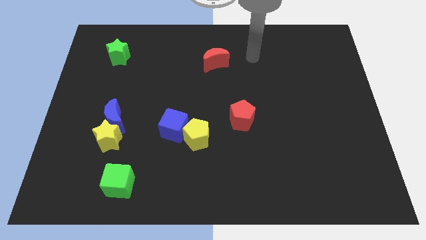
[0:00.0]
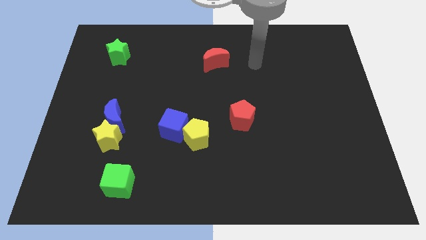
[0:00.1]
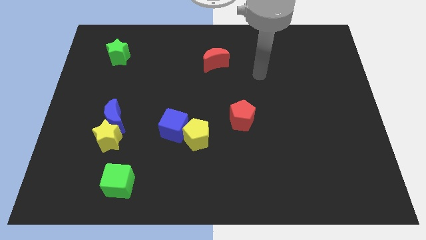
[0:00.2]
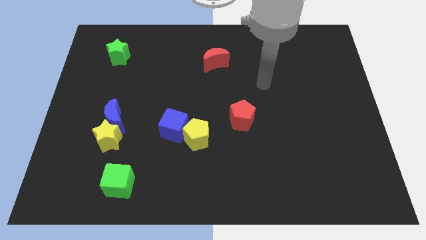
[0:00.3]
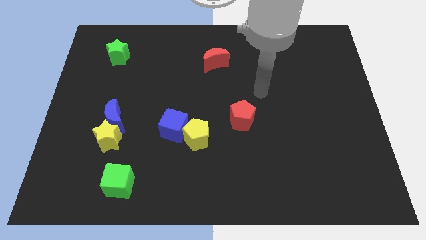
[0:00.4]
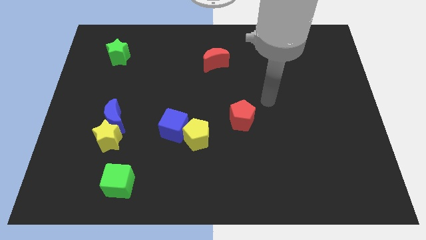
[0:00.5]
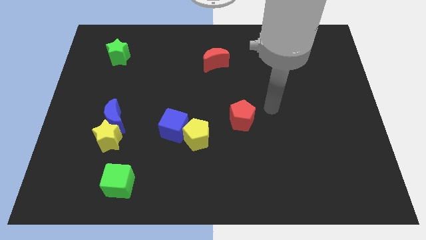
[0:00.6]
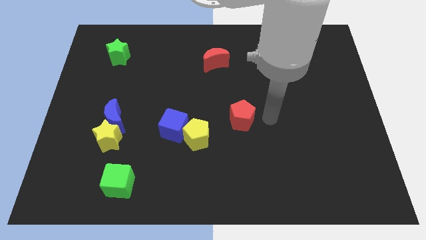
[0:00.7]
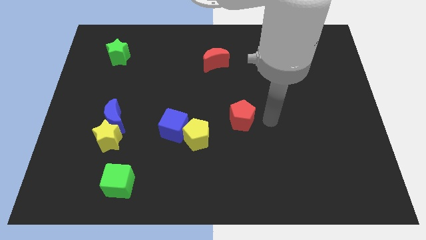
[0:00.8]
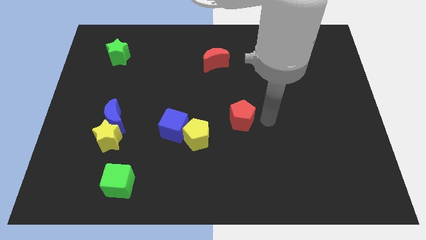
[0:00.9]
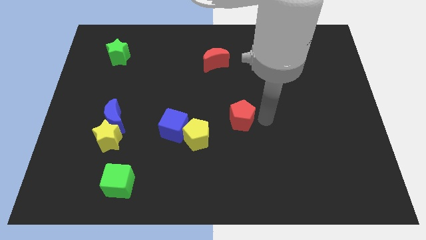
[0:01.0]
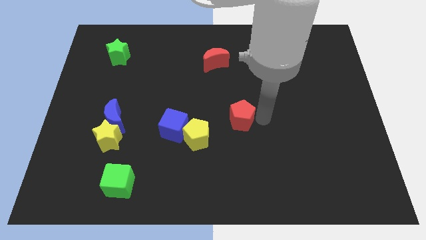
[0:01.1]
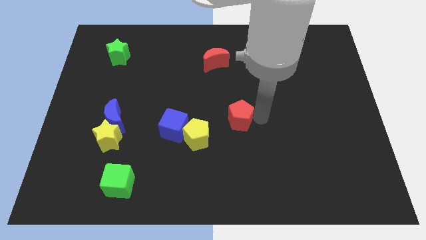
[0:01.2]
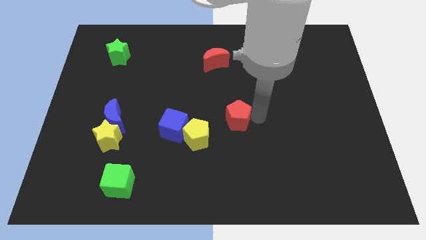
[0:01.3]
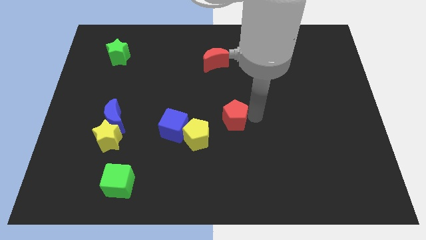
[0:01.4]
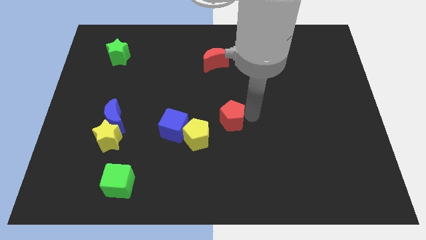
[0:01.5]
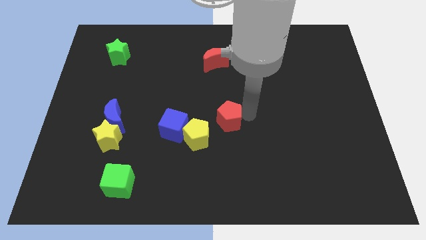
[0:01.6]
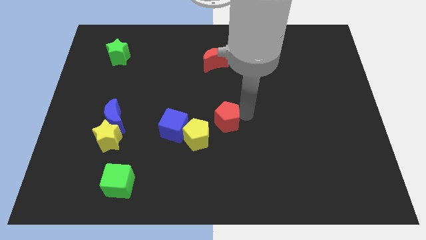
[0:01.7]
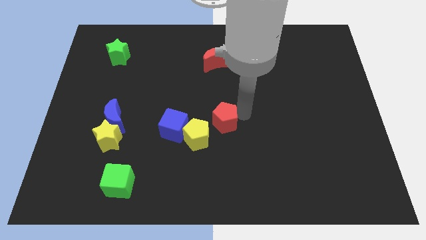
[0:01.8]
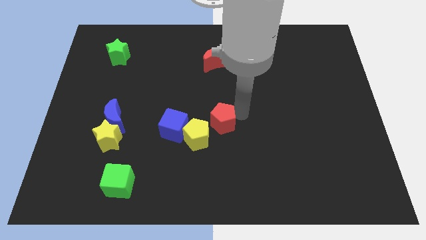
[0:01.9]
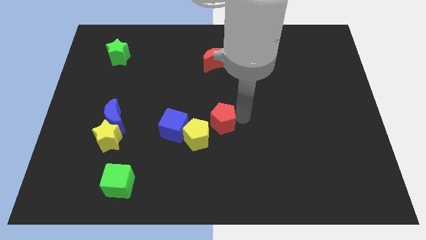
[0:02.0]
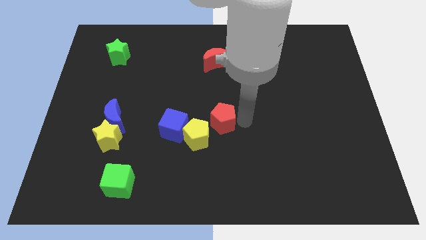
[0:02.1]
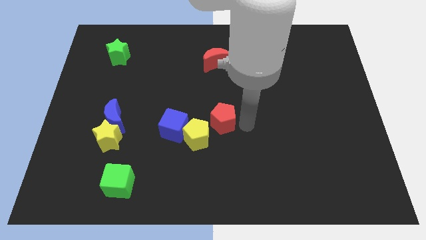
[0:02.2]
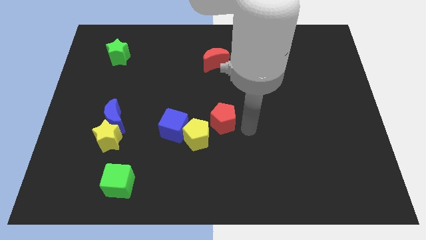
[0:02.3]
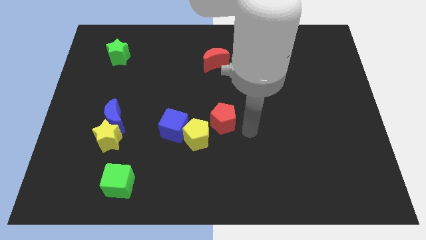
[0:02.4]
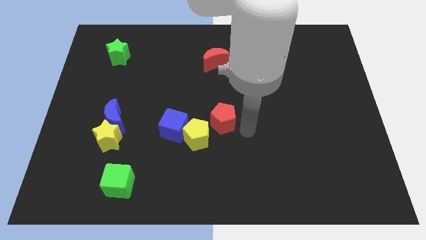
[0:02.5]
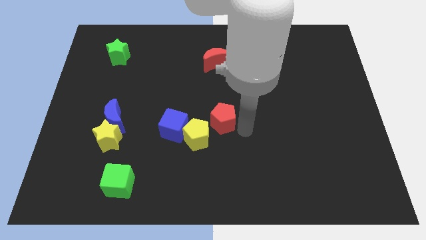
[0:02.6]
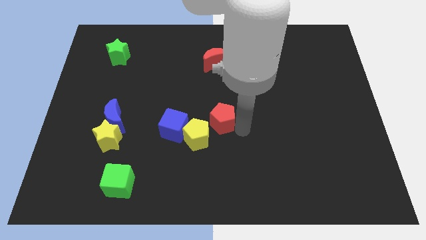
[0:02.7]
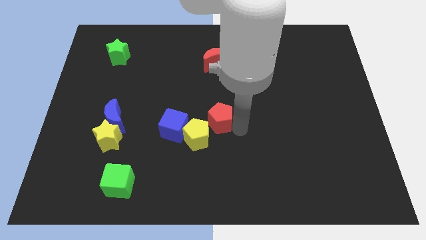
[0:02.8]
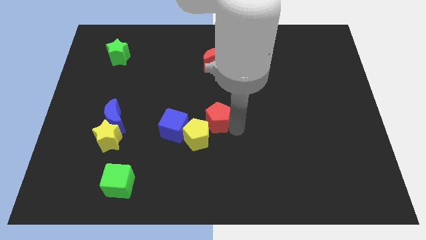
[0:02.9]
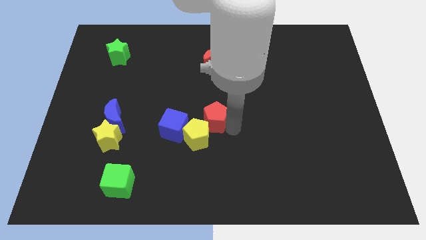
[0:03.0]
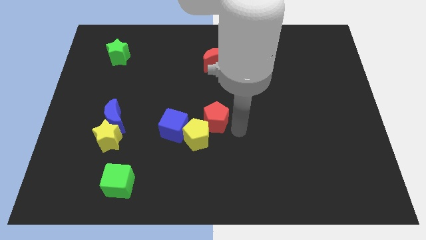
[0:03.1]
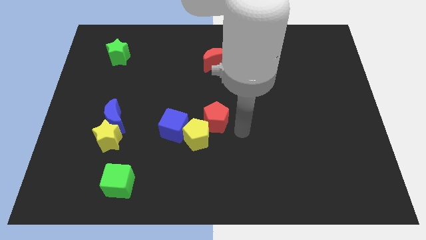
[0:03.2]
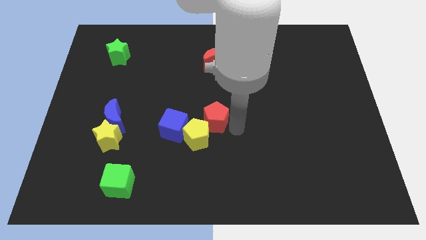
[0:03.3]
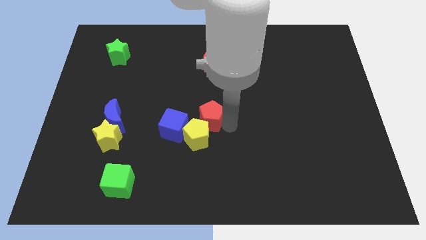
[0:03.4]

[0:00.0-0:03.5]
move the red pentagon a little bit left

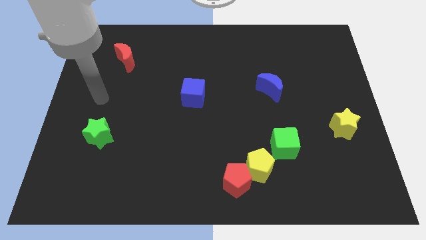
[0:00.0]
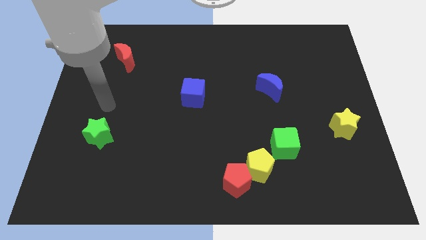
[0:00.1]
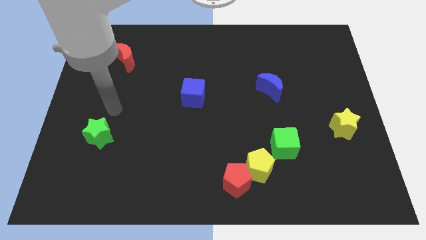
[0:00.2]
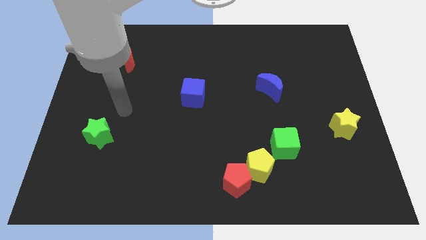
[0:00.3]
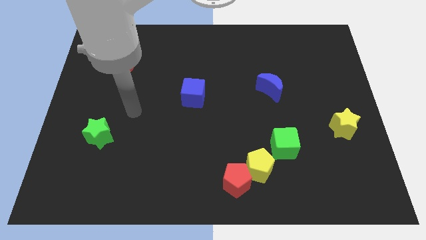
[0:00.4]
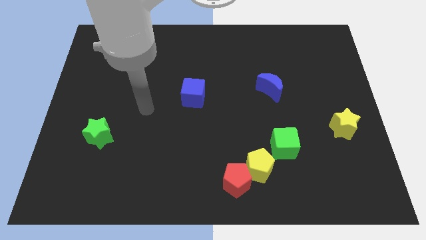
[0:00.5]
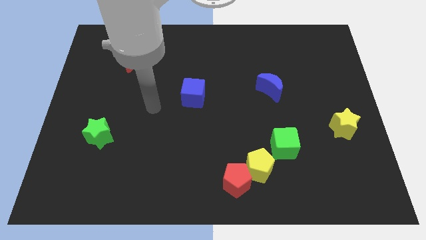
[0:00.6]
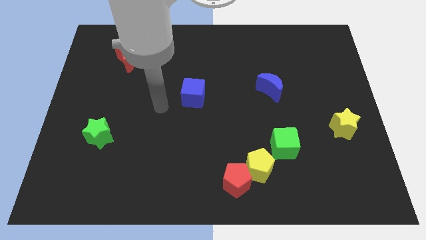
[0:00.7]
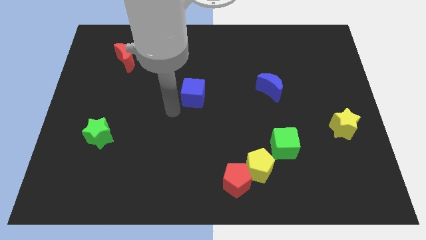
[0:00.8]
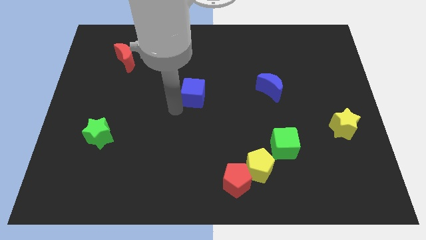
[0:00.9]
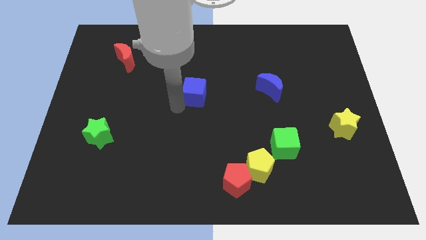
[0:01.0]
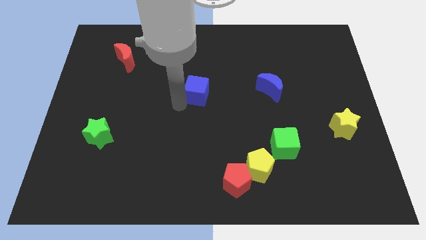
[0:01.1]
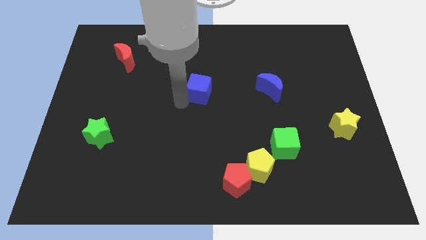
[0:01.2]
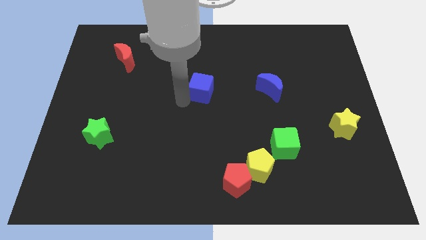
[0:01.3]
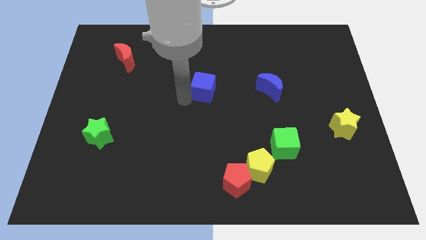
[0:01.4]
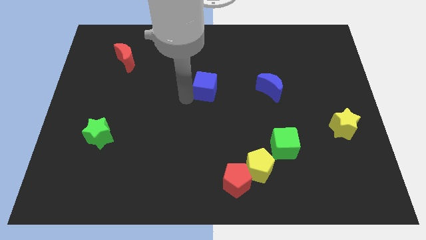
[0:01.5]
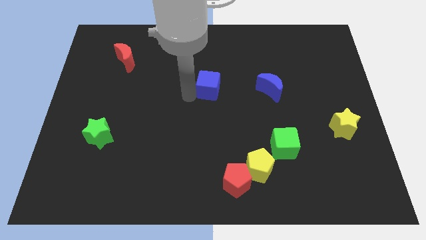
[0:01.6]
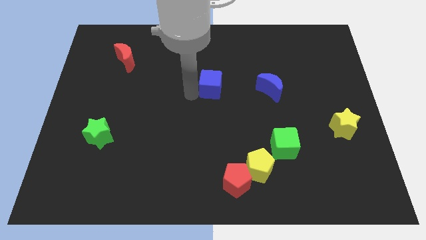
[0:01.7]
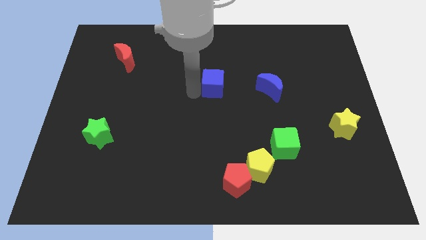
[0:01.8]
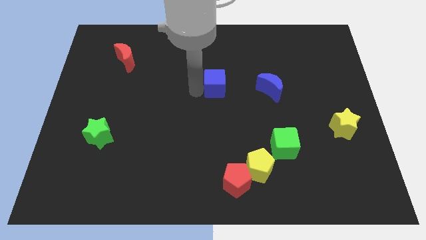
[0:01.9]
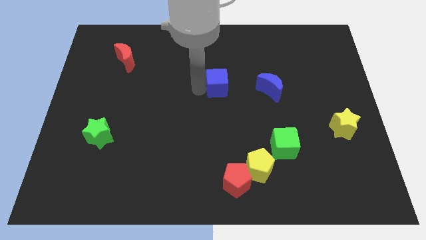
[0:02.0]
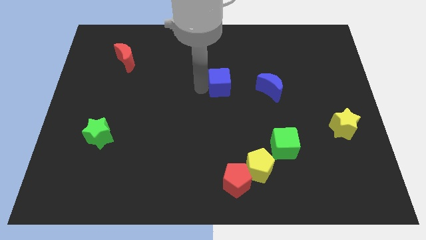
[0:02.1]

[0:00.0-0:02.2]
slide the blue cube upwards and to the right diagonally somewhat

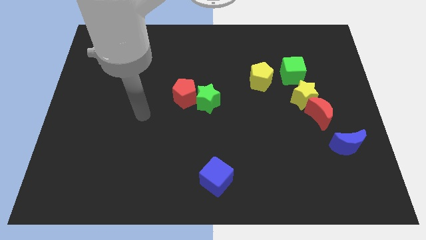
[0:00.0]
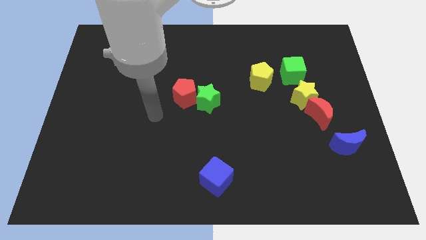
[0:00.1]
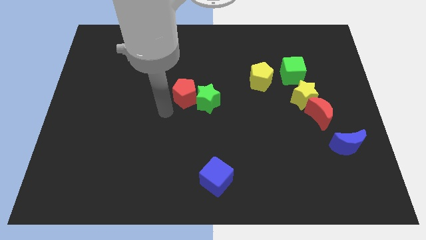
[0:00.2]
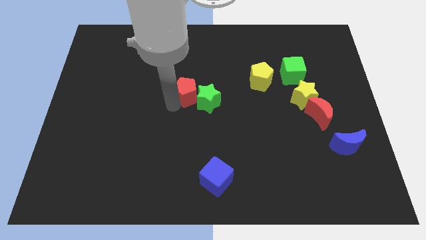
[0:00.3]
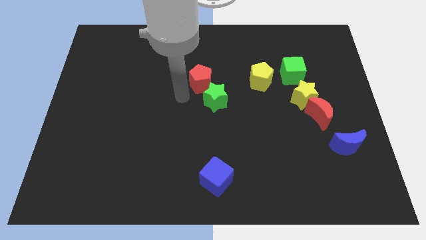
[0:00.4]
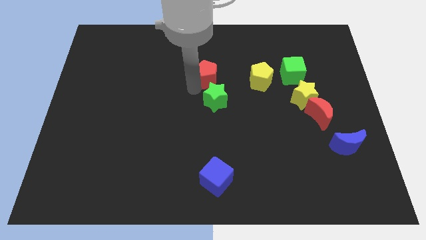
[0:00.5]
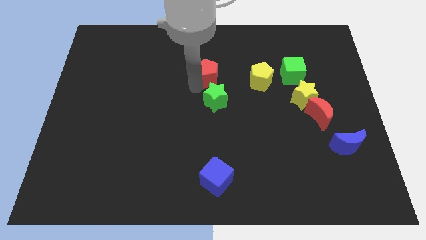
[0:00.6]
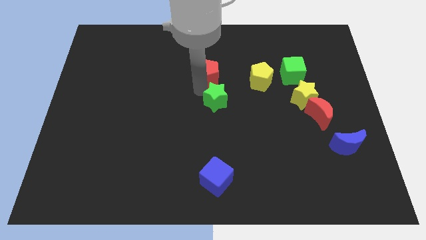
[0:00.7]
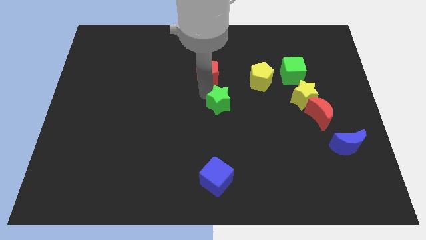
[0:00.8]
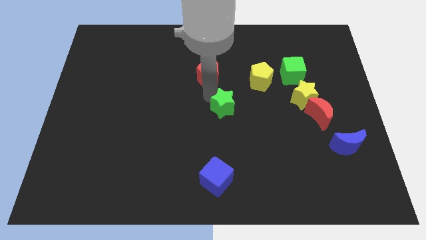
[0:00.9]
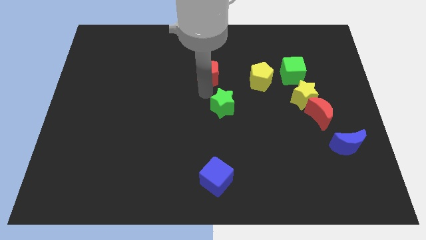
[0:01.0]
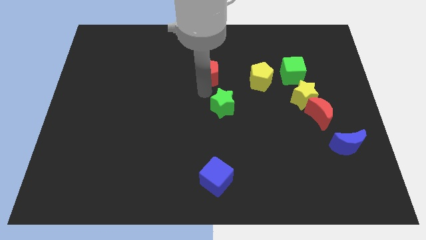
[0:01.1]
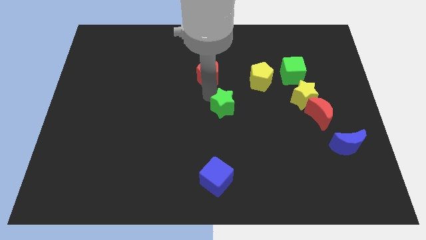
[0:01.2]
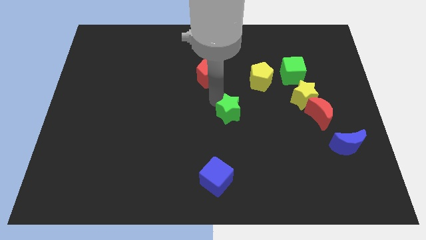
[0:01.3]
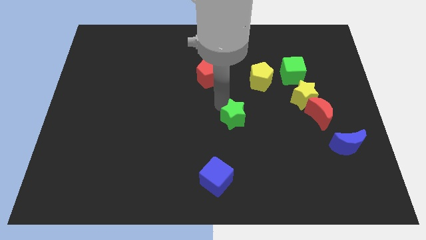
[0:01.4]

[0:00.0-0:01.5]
slide the green star a little downwards and to the right diagonally

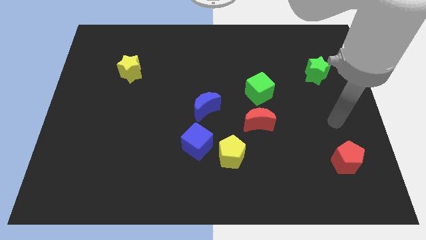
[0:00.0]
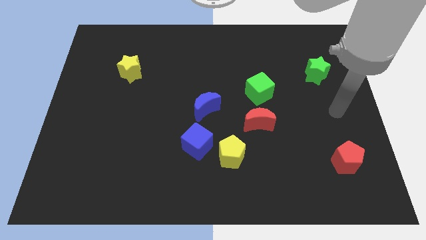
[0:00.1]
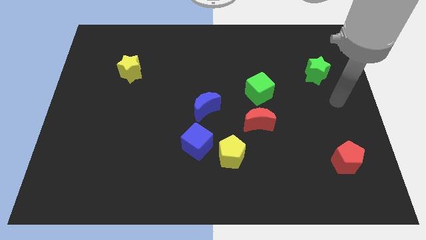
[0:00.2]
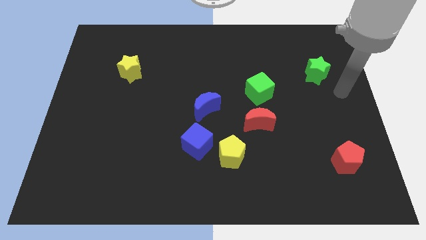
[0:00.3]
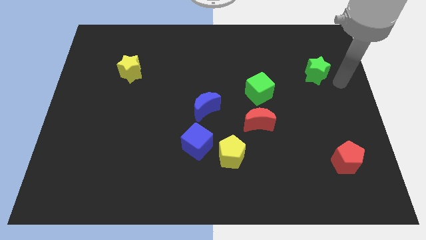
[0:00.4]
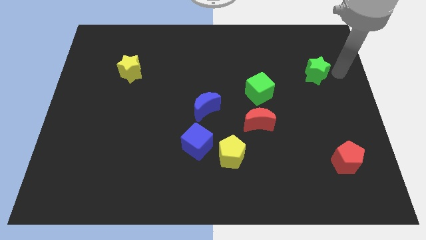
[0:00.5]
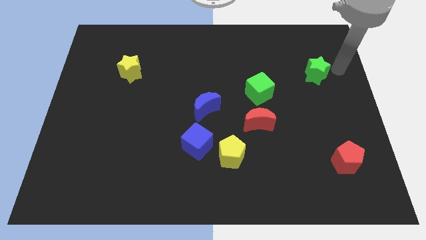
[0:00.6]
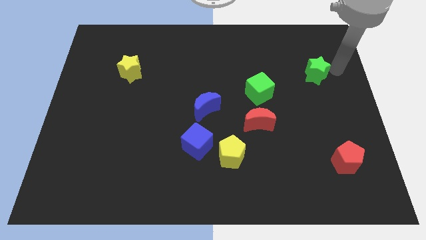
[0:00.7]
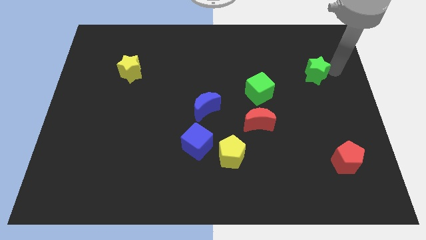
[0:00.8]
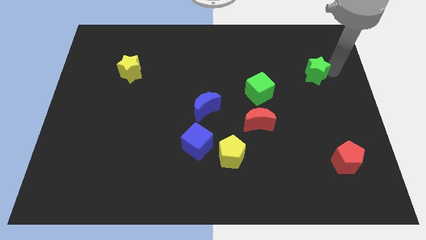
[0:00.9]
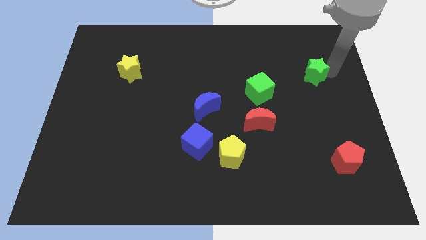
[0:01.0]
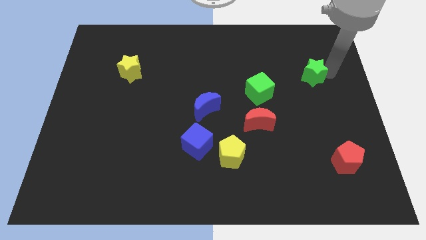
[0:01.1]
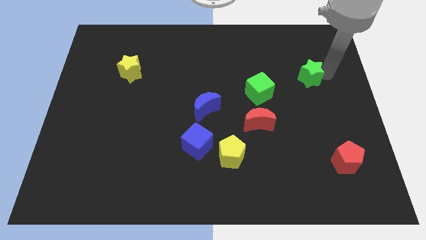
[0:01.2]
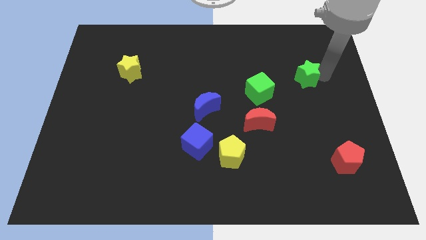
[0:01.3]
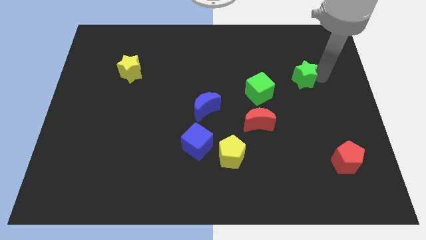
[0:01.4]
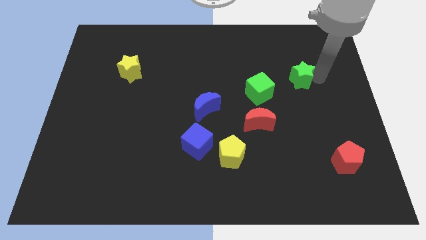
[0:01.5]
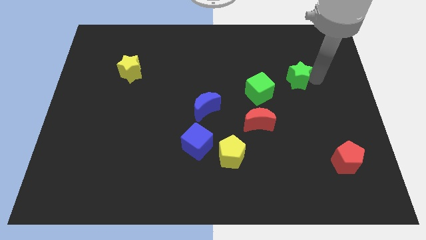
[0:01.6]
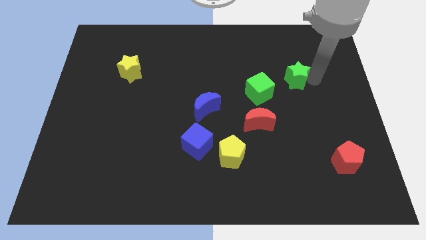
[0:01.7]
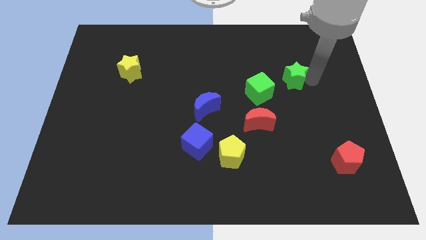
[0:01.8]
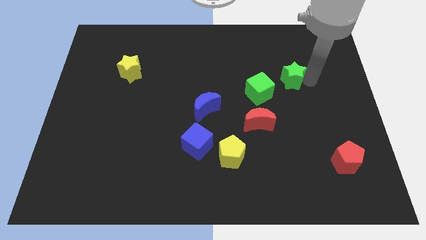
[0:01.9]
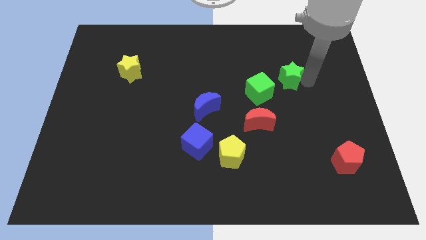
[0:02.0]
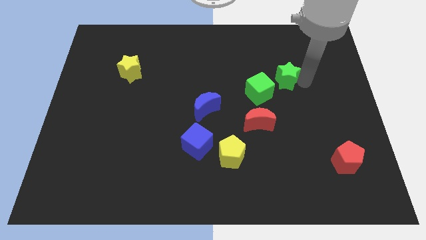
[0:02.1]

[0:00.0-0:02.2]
slide the green star a bit left
